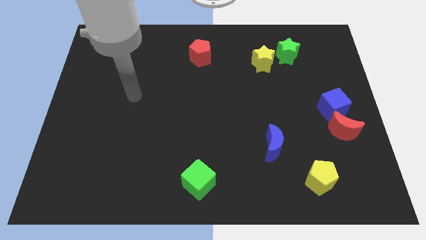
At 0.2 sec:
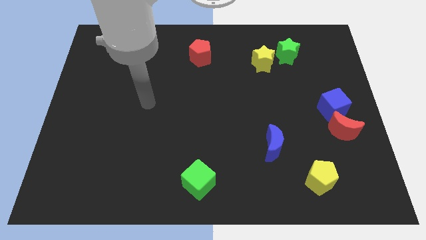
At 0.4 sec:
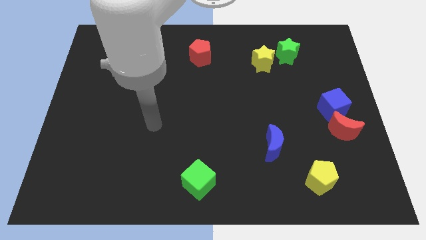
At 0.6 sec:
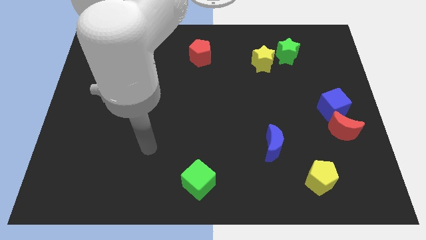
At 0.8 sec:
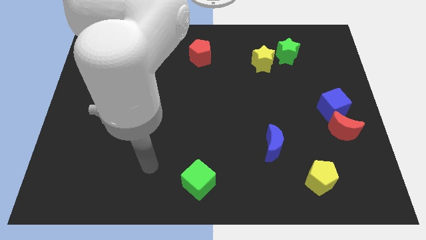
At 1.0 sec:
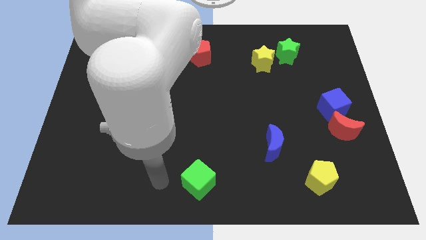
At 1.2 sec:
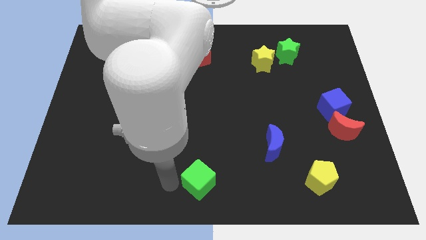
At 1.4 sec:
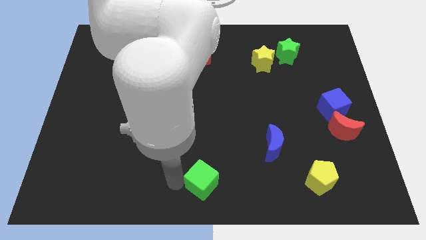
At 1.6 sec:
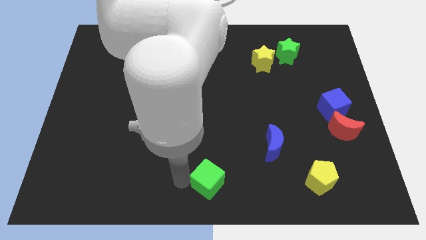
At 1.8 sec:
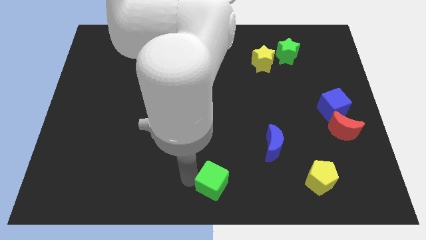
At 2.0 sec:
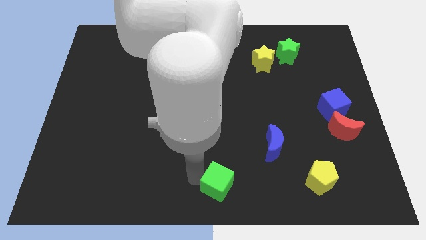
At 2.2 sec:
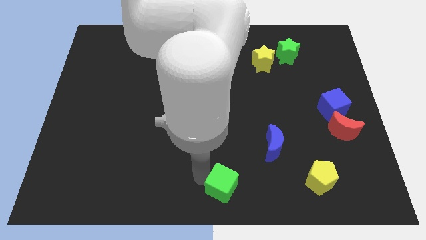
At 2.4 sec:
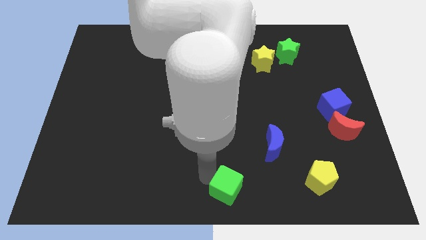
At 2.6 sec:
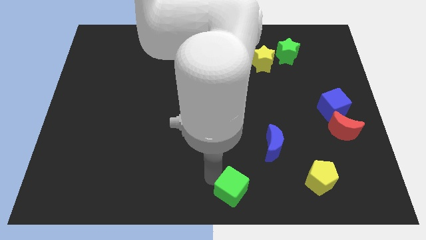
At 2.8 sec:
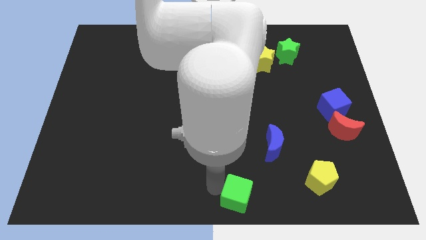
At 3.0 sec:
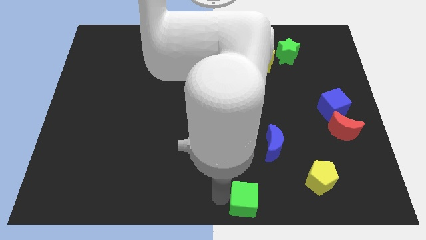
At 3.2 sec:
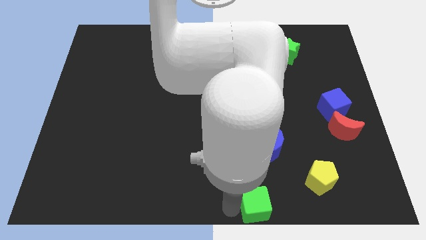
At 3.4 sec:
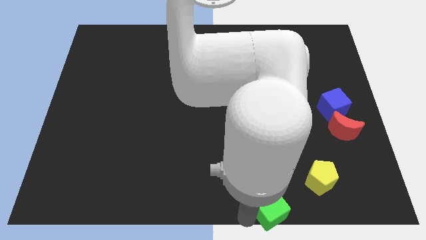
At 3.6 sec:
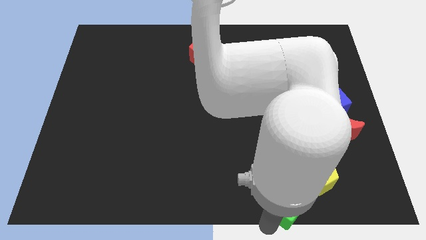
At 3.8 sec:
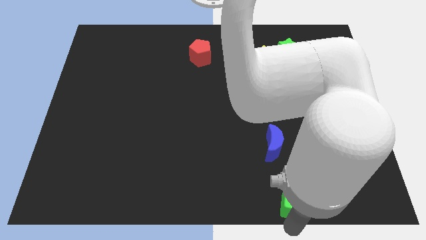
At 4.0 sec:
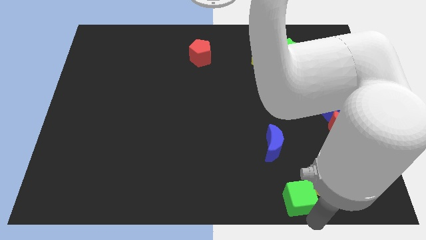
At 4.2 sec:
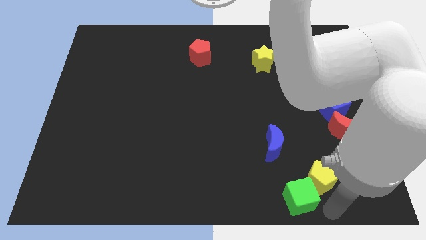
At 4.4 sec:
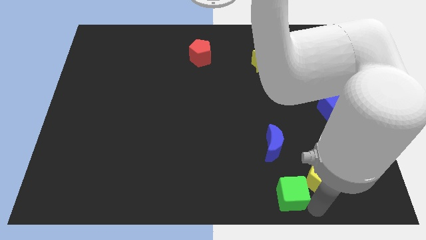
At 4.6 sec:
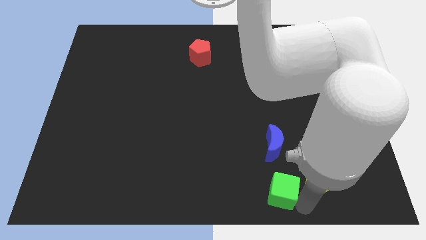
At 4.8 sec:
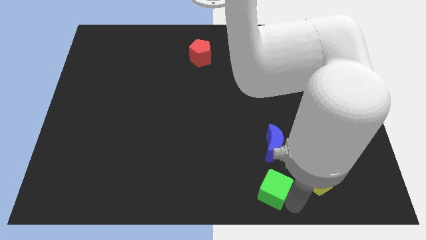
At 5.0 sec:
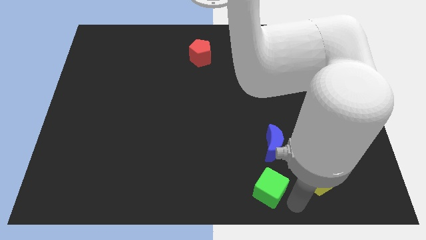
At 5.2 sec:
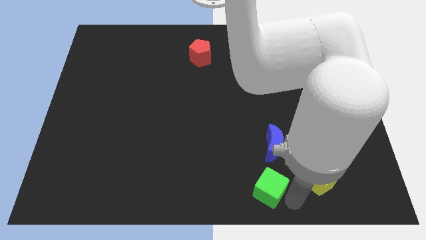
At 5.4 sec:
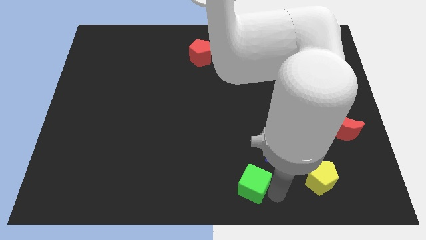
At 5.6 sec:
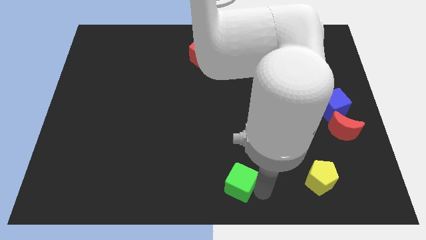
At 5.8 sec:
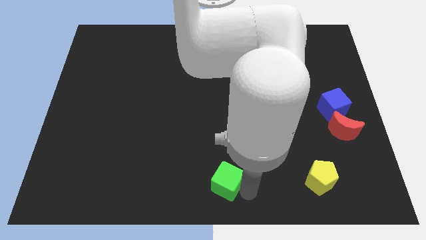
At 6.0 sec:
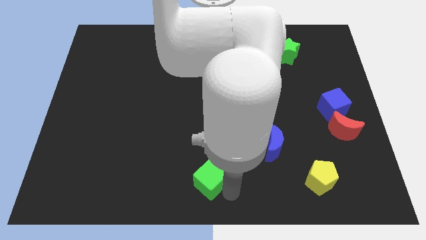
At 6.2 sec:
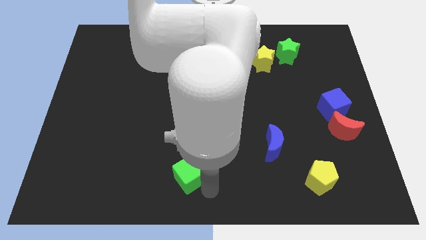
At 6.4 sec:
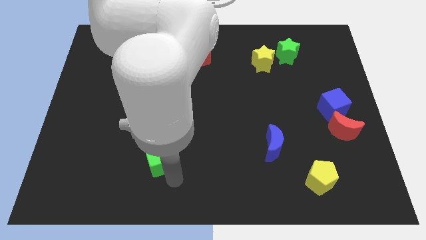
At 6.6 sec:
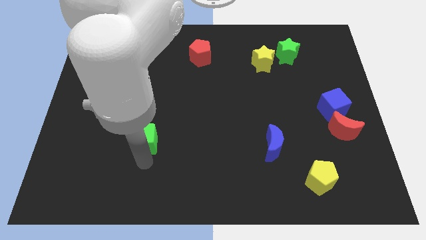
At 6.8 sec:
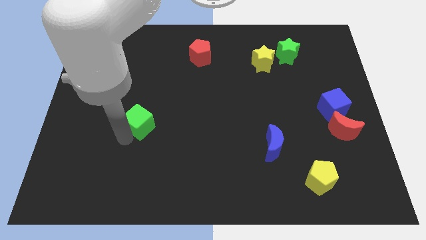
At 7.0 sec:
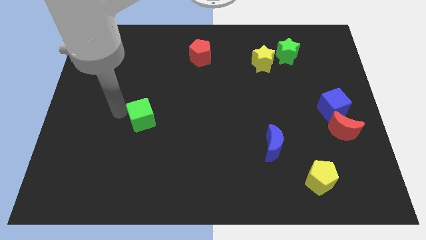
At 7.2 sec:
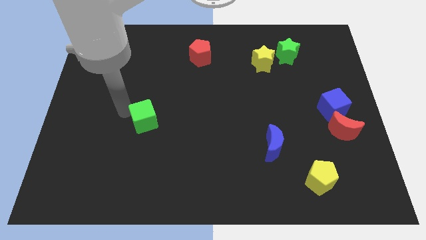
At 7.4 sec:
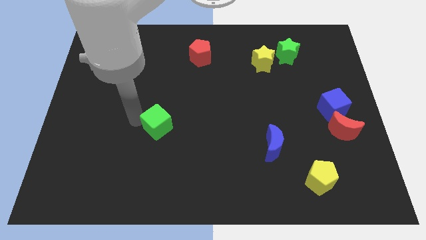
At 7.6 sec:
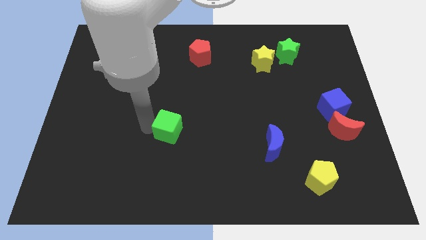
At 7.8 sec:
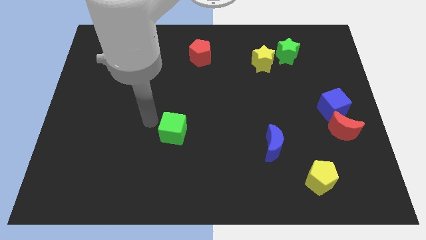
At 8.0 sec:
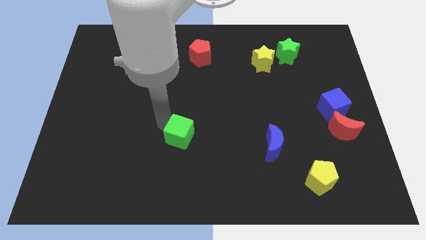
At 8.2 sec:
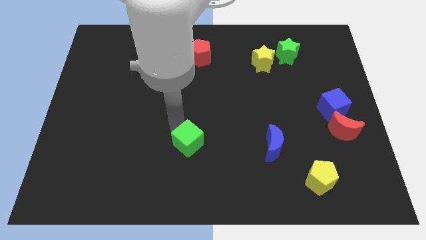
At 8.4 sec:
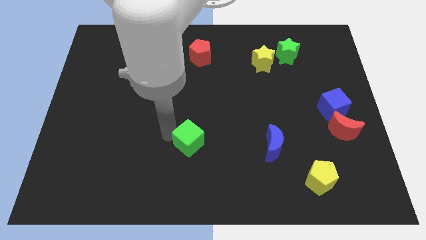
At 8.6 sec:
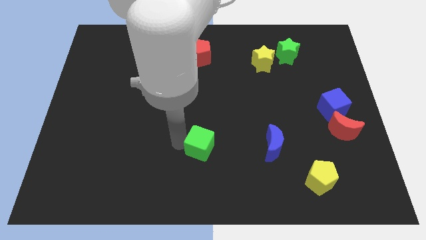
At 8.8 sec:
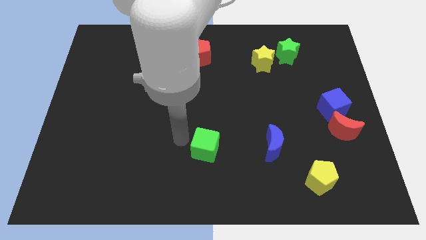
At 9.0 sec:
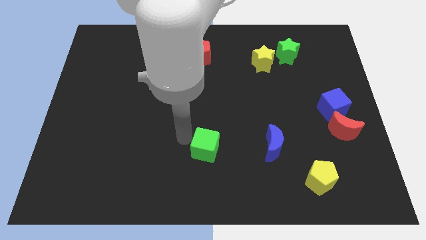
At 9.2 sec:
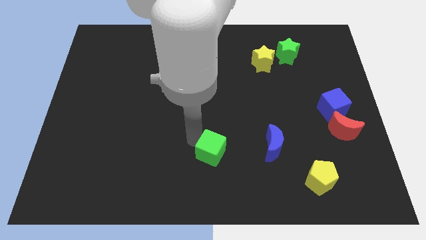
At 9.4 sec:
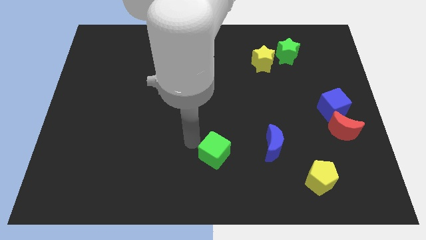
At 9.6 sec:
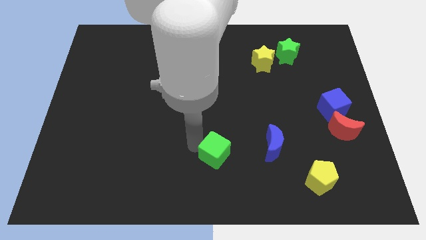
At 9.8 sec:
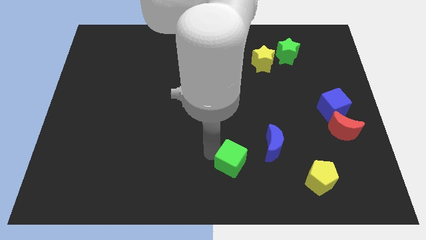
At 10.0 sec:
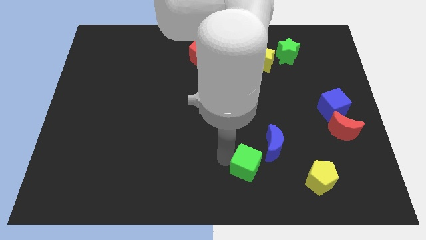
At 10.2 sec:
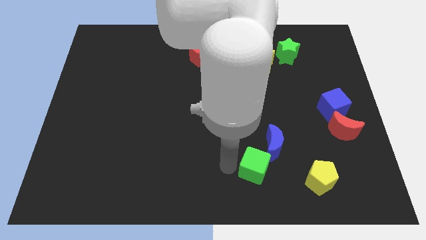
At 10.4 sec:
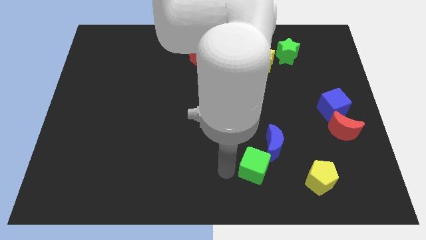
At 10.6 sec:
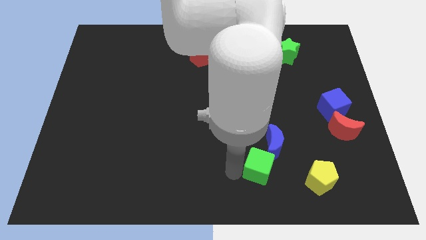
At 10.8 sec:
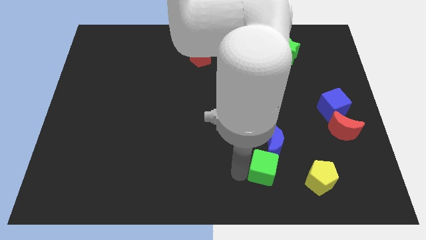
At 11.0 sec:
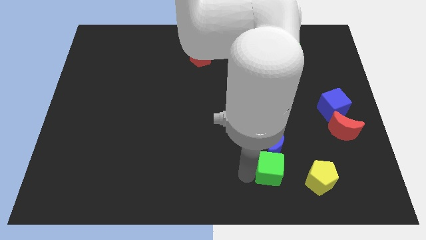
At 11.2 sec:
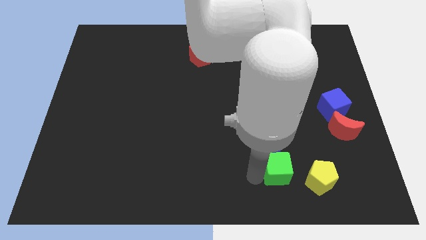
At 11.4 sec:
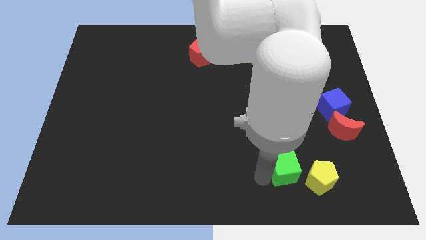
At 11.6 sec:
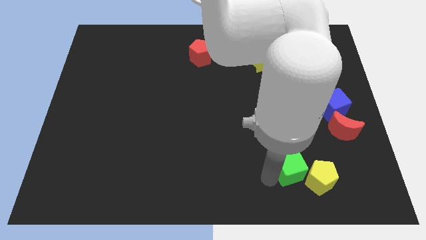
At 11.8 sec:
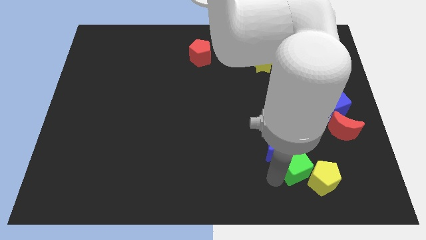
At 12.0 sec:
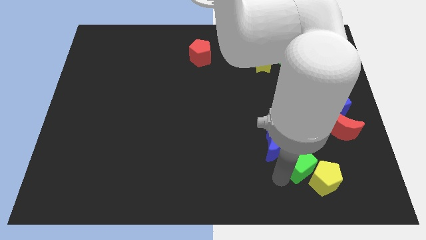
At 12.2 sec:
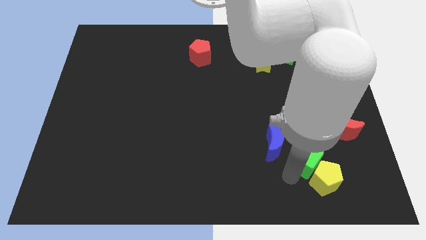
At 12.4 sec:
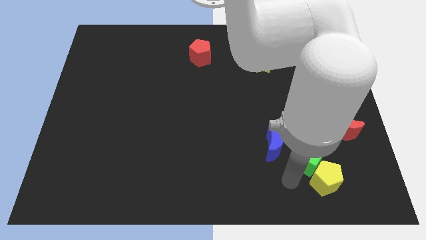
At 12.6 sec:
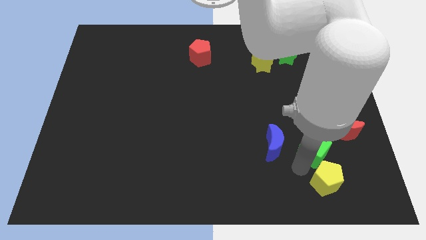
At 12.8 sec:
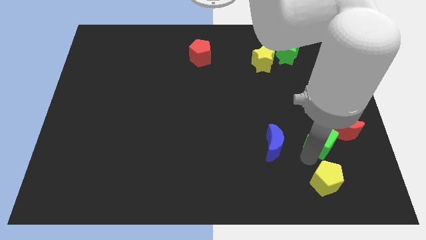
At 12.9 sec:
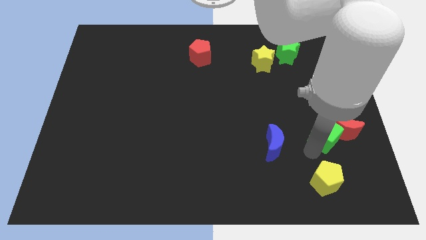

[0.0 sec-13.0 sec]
put the green cube towards the red moon

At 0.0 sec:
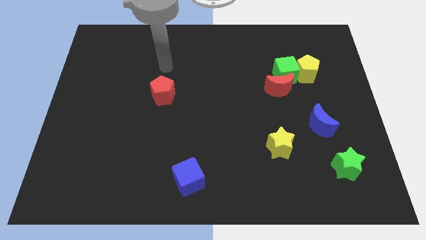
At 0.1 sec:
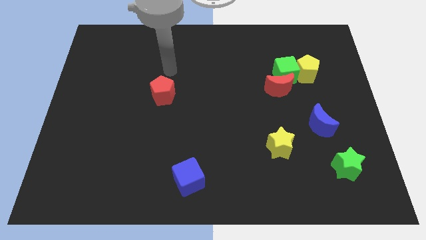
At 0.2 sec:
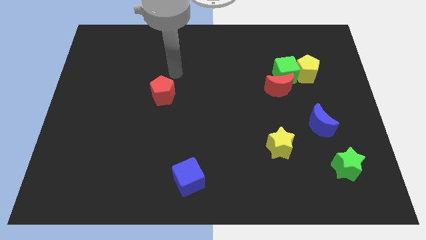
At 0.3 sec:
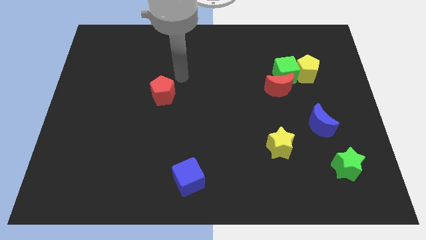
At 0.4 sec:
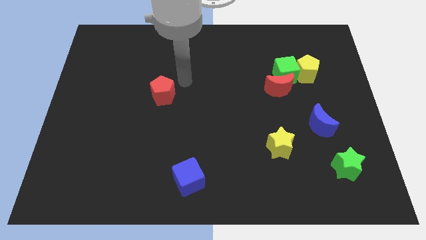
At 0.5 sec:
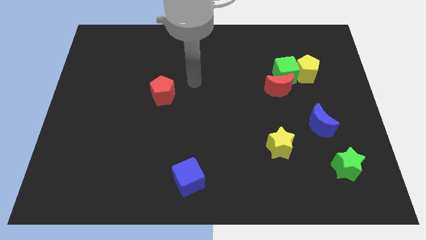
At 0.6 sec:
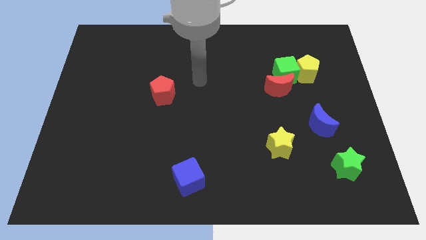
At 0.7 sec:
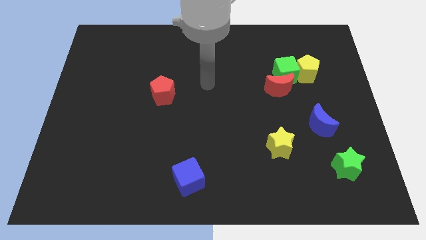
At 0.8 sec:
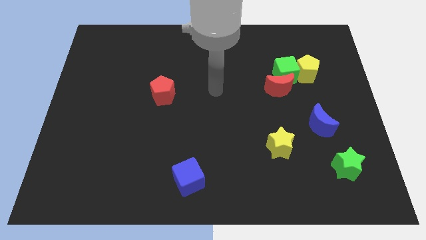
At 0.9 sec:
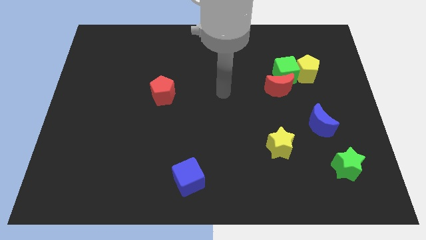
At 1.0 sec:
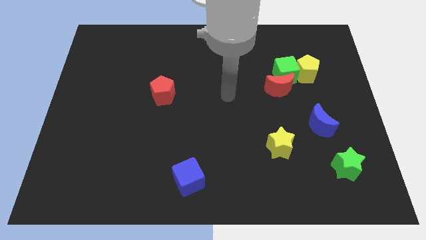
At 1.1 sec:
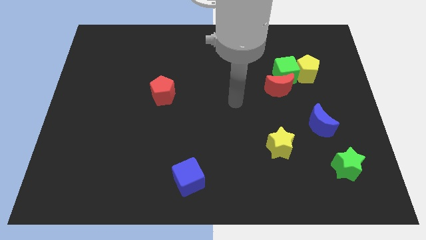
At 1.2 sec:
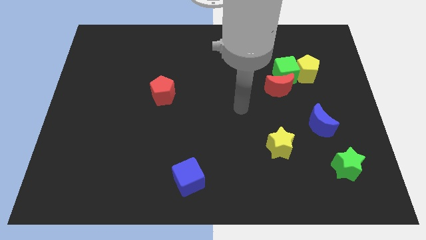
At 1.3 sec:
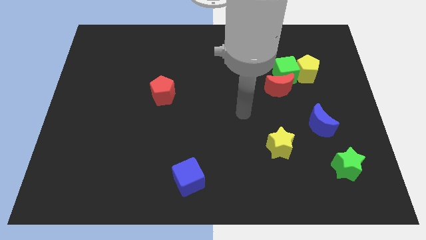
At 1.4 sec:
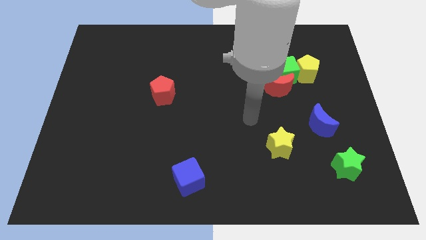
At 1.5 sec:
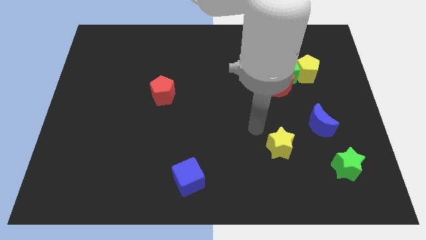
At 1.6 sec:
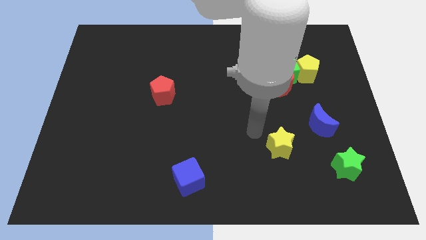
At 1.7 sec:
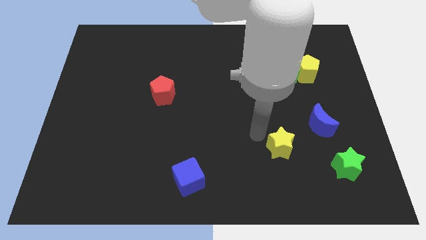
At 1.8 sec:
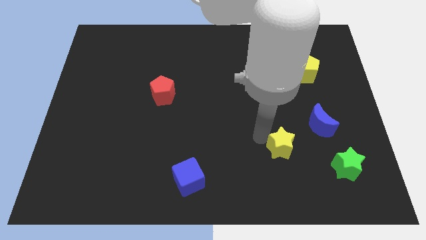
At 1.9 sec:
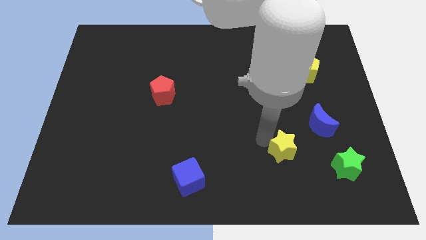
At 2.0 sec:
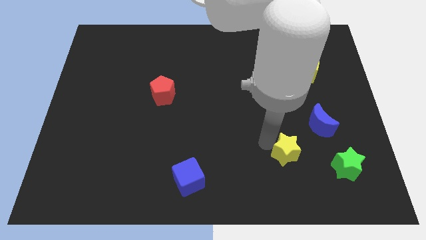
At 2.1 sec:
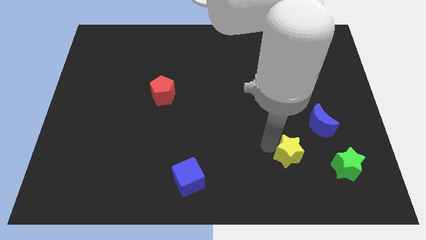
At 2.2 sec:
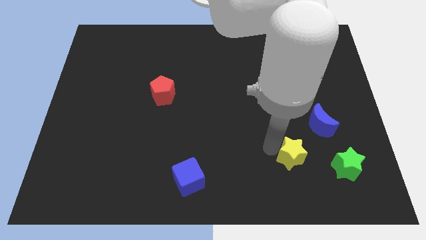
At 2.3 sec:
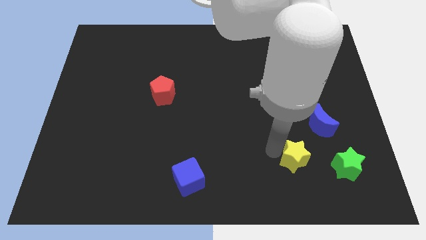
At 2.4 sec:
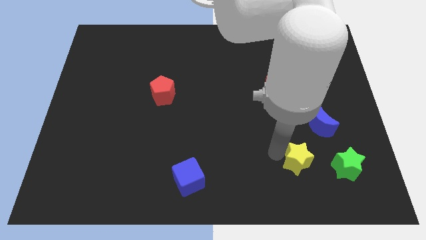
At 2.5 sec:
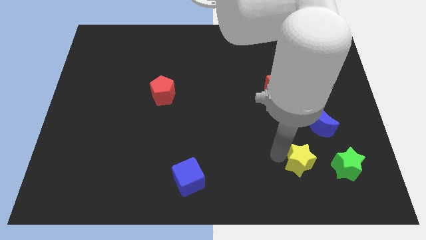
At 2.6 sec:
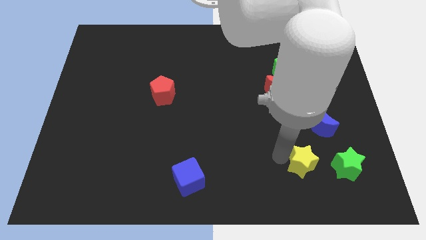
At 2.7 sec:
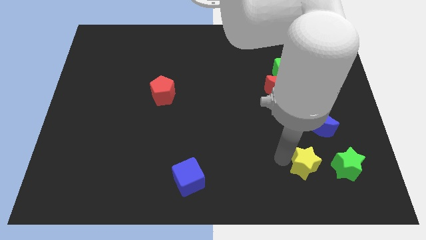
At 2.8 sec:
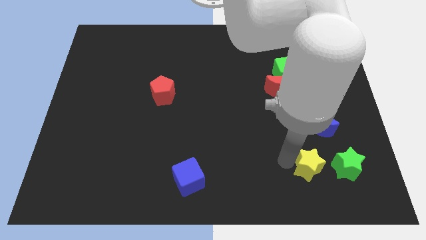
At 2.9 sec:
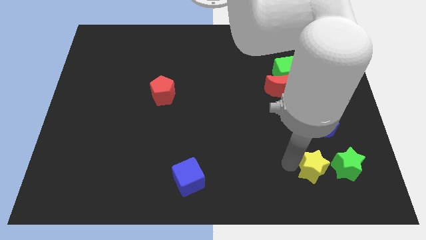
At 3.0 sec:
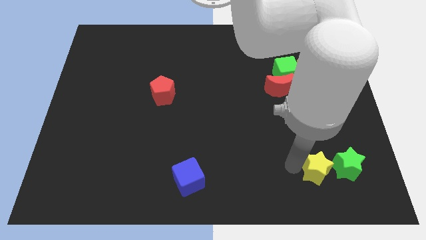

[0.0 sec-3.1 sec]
push the yellow star towards the green star
